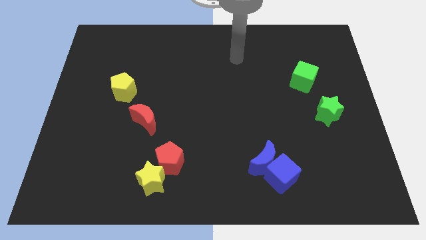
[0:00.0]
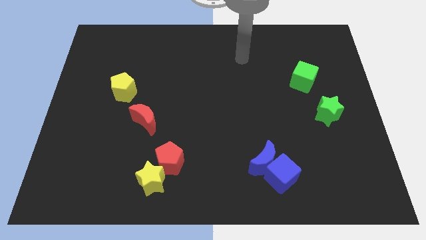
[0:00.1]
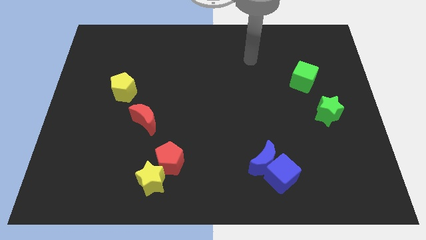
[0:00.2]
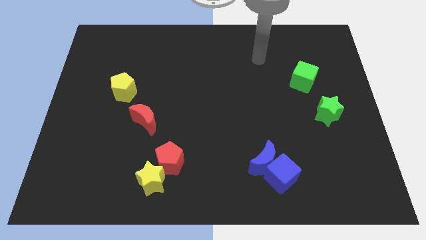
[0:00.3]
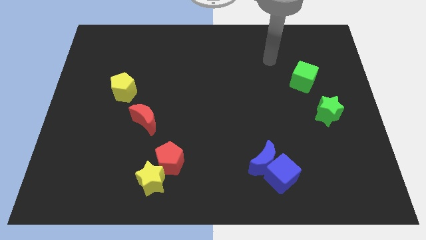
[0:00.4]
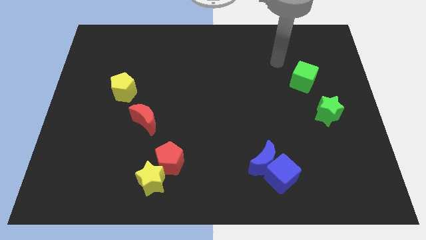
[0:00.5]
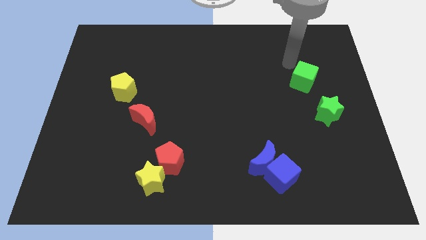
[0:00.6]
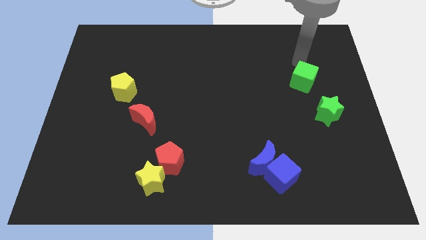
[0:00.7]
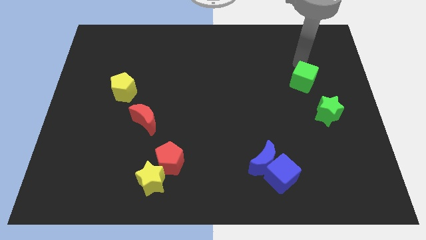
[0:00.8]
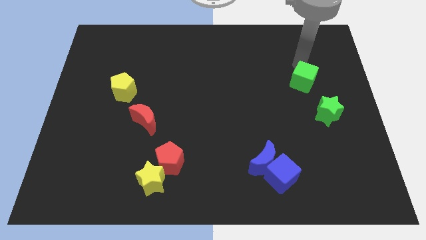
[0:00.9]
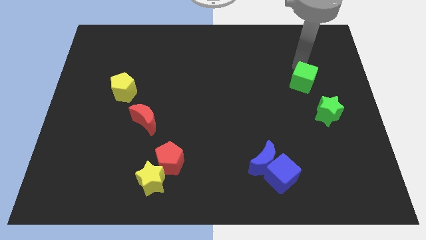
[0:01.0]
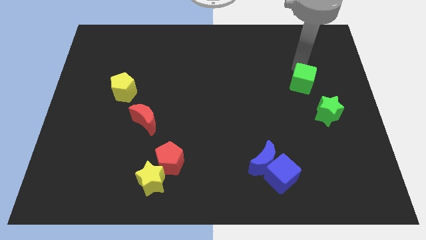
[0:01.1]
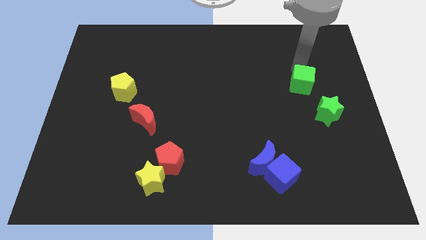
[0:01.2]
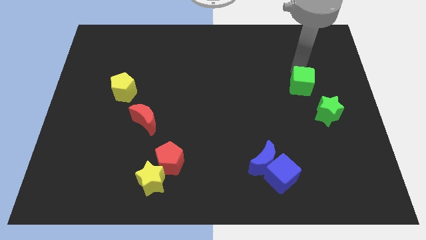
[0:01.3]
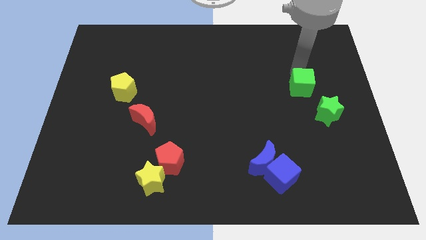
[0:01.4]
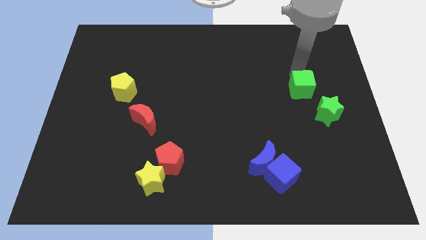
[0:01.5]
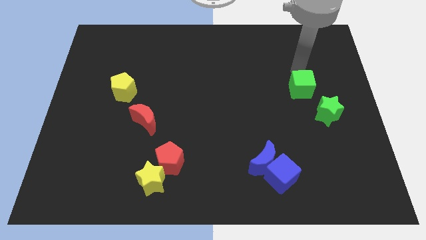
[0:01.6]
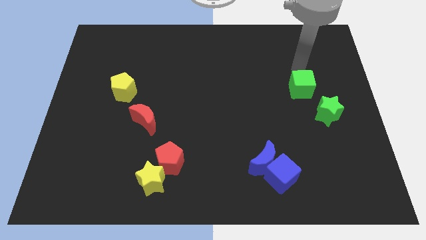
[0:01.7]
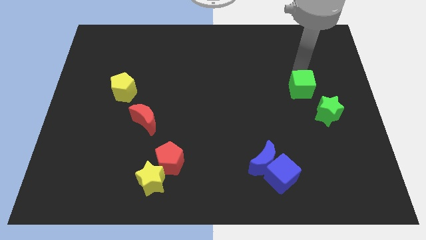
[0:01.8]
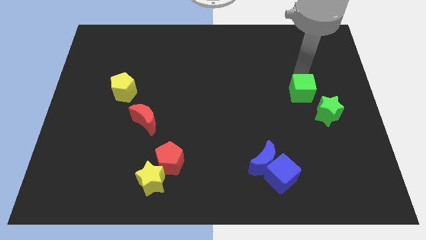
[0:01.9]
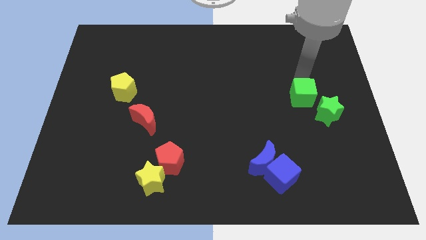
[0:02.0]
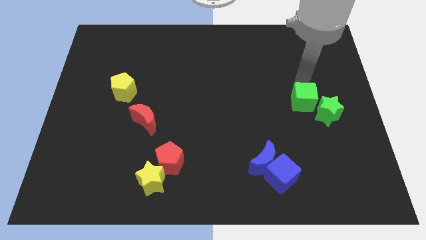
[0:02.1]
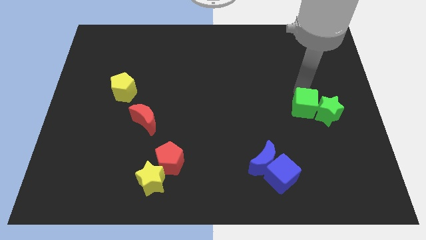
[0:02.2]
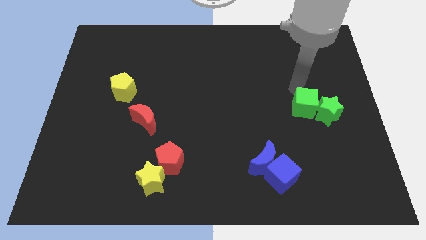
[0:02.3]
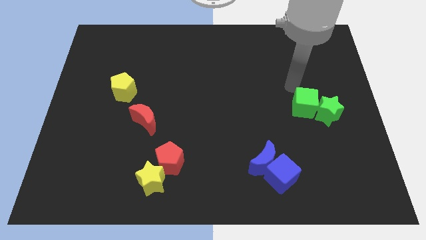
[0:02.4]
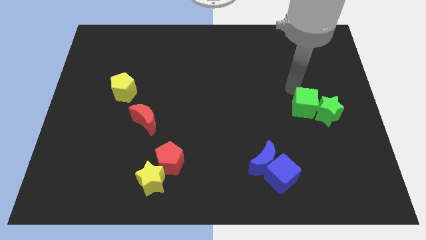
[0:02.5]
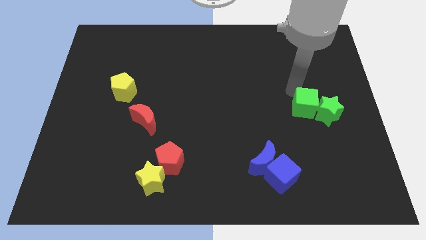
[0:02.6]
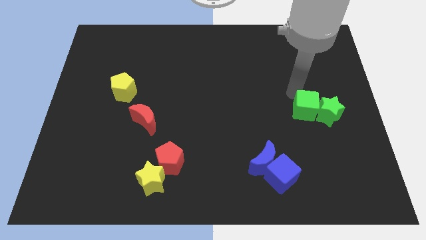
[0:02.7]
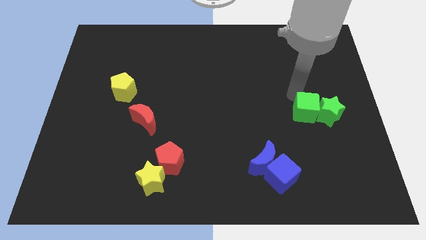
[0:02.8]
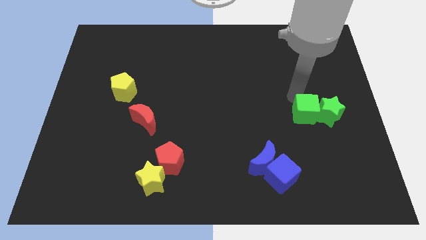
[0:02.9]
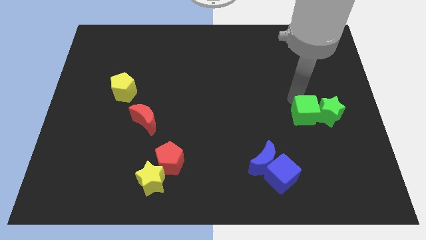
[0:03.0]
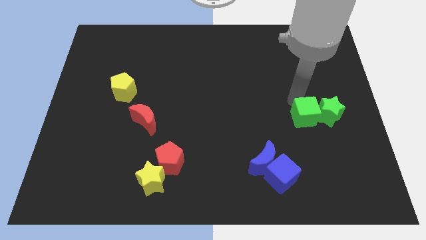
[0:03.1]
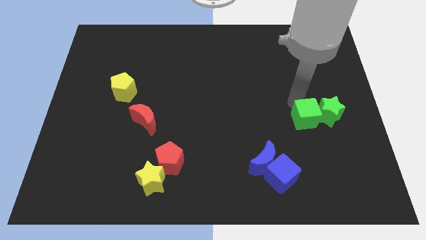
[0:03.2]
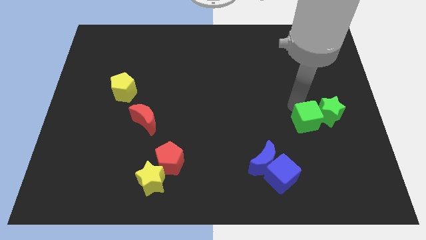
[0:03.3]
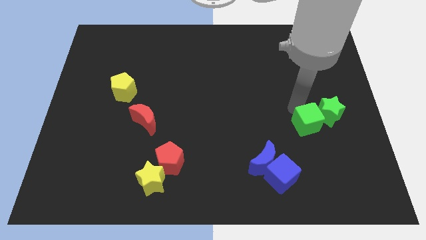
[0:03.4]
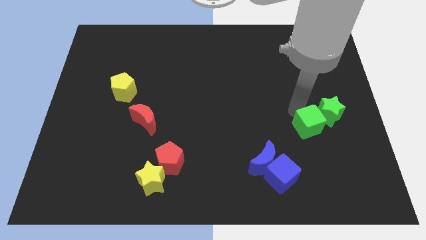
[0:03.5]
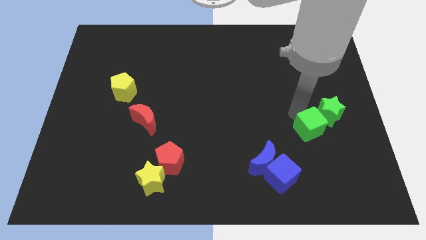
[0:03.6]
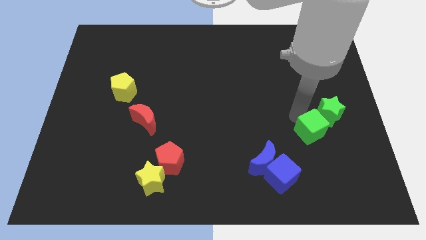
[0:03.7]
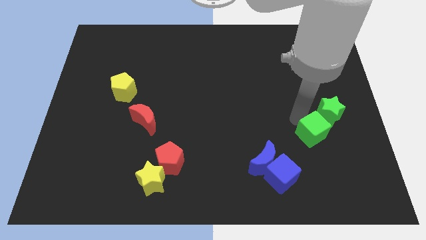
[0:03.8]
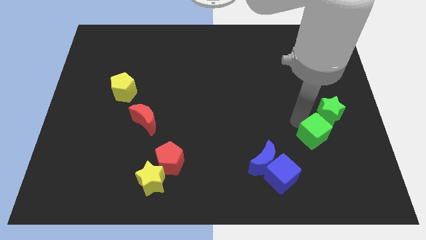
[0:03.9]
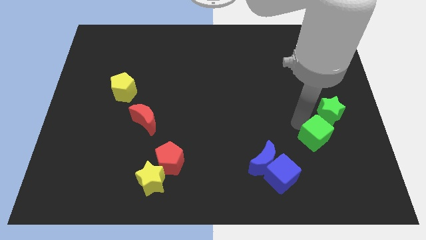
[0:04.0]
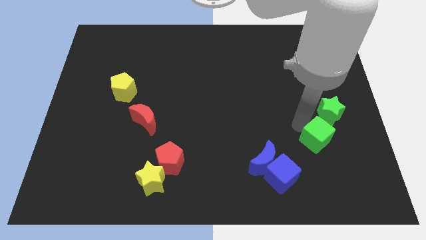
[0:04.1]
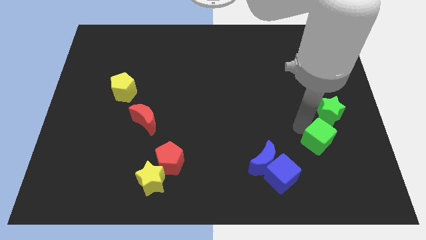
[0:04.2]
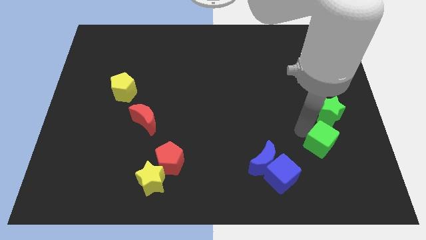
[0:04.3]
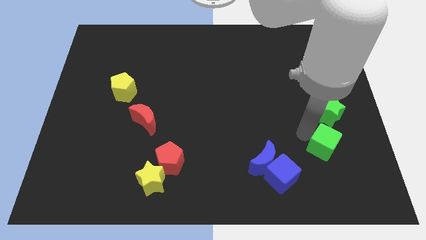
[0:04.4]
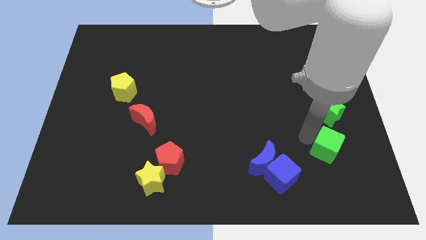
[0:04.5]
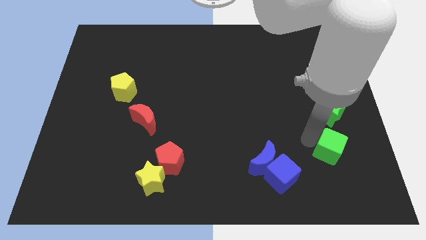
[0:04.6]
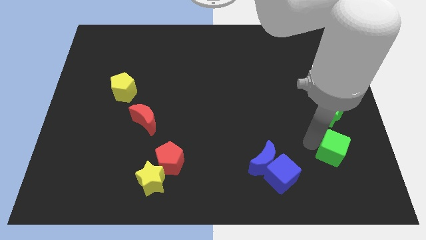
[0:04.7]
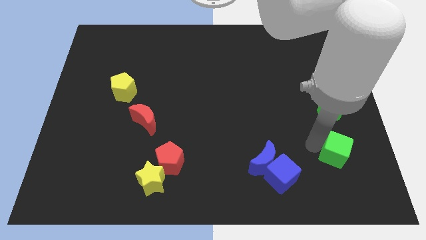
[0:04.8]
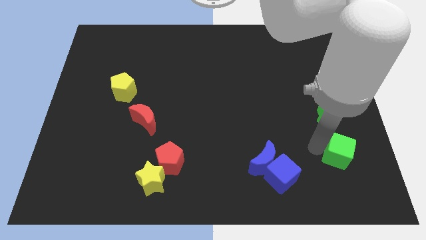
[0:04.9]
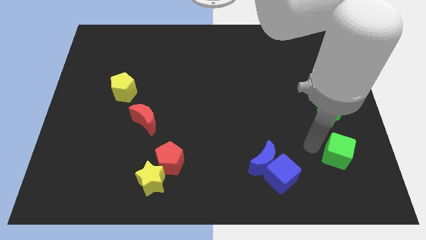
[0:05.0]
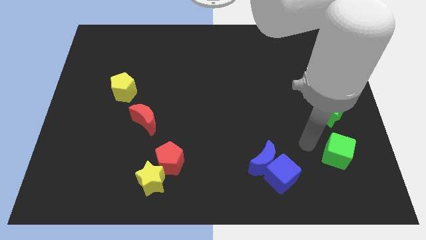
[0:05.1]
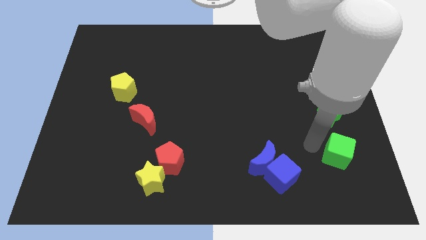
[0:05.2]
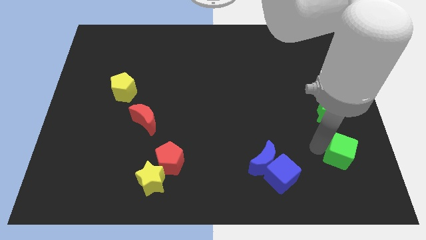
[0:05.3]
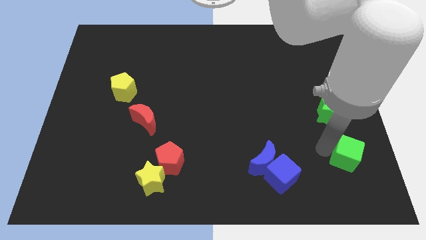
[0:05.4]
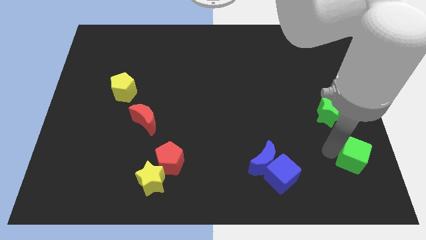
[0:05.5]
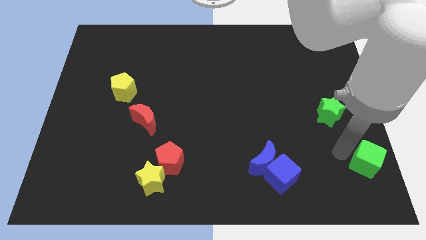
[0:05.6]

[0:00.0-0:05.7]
slide the green cube to the bottom right corner

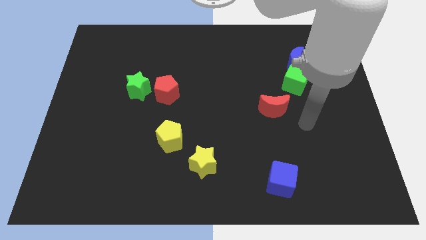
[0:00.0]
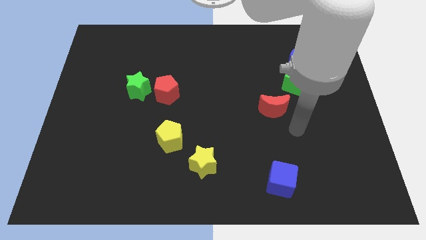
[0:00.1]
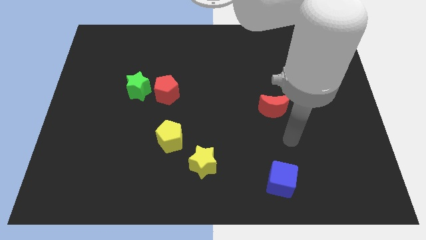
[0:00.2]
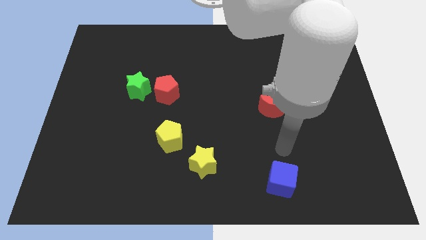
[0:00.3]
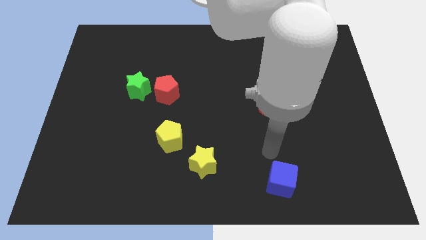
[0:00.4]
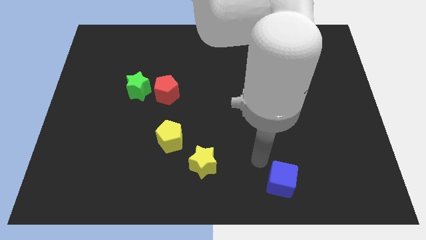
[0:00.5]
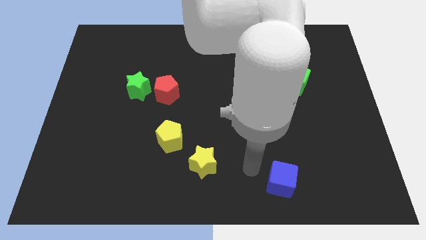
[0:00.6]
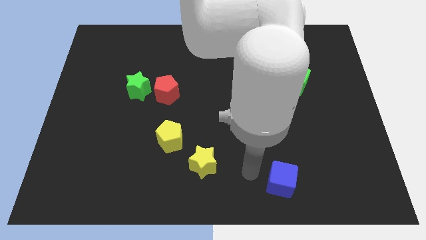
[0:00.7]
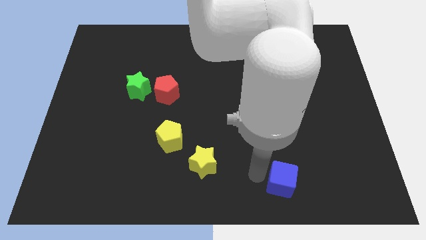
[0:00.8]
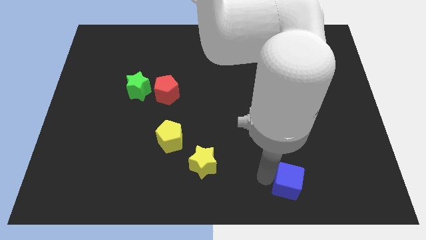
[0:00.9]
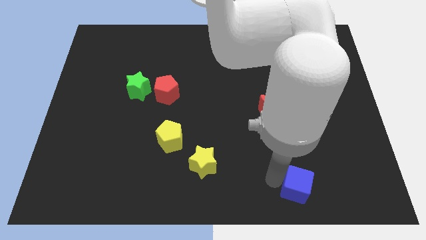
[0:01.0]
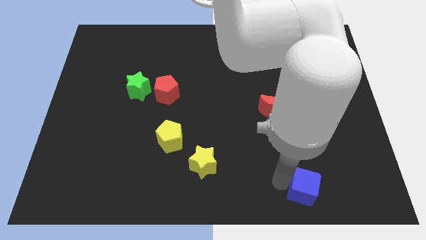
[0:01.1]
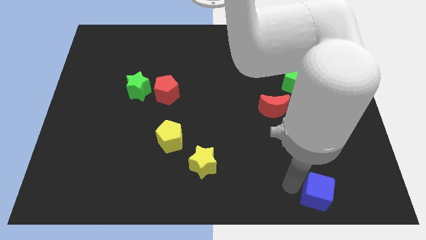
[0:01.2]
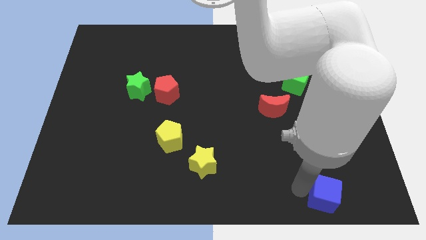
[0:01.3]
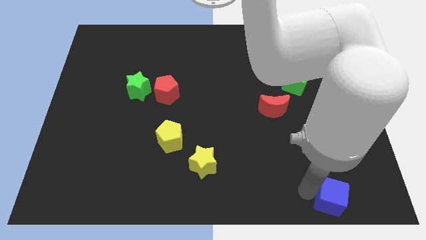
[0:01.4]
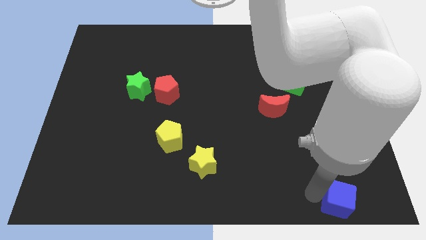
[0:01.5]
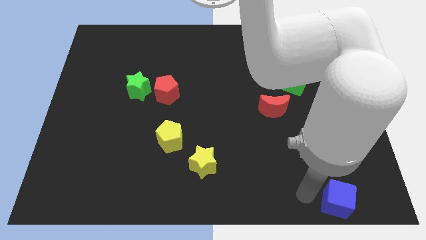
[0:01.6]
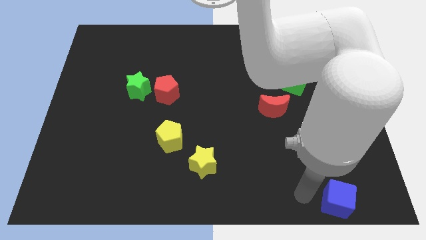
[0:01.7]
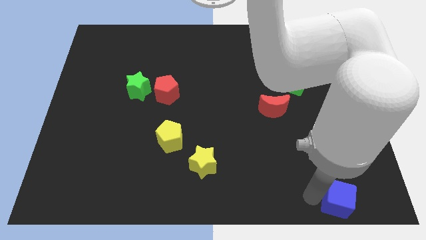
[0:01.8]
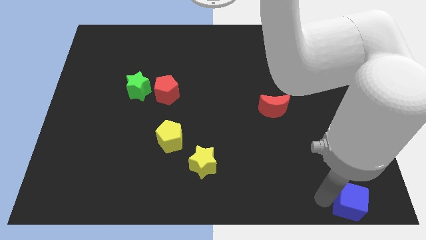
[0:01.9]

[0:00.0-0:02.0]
move the blue cube to the lower right corner
